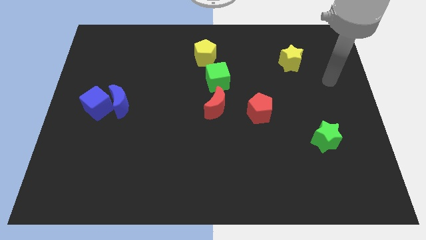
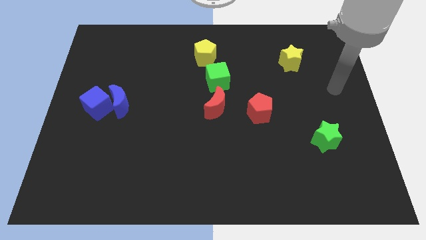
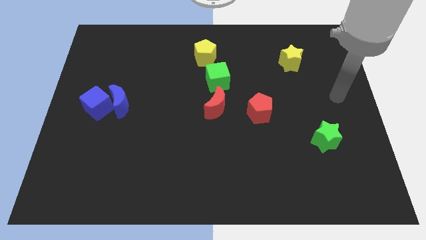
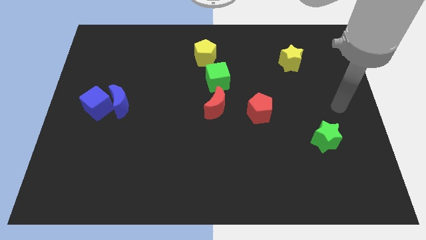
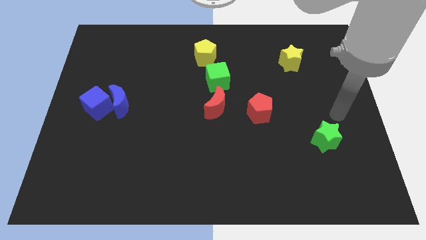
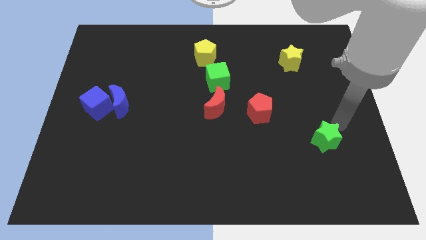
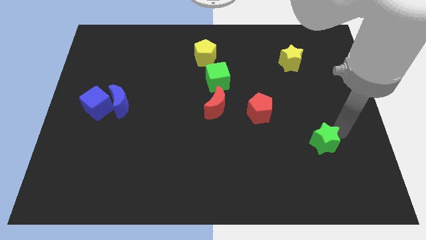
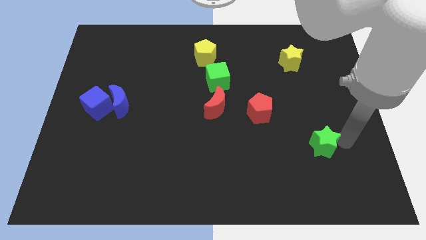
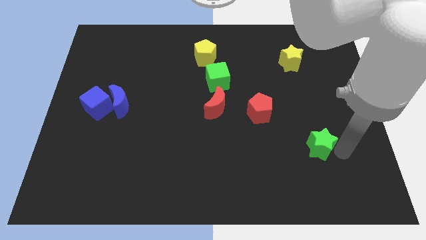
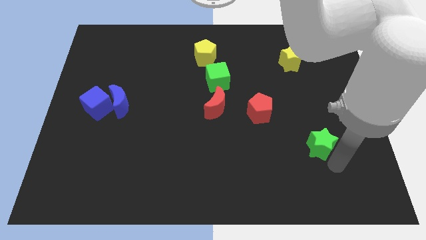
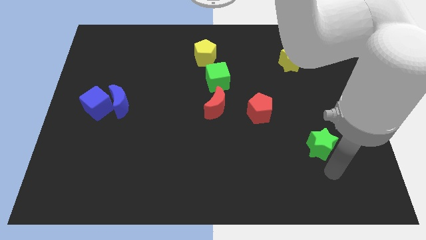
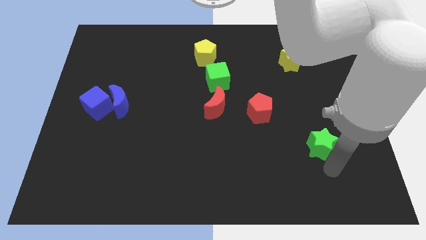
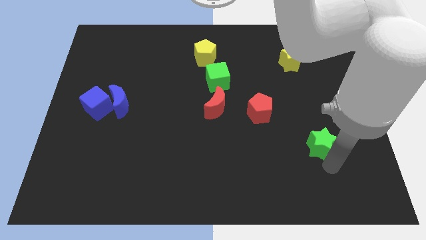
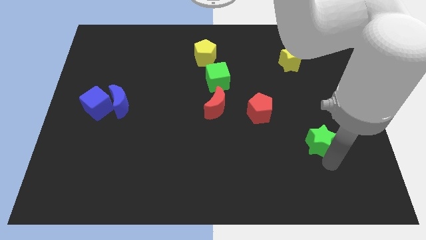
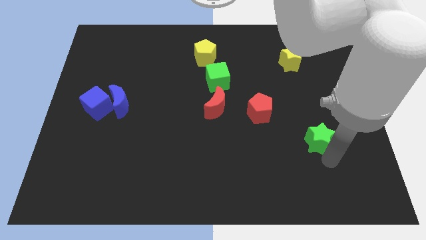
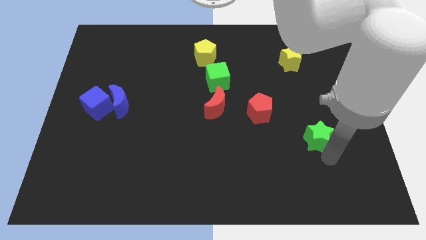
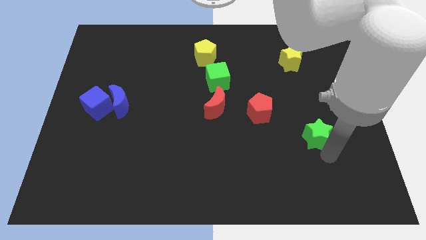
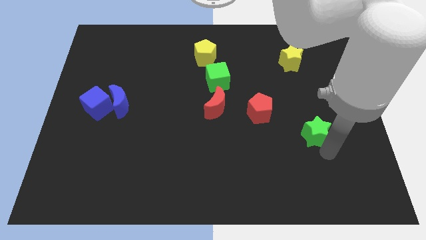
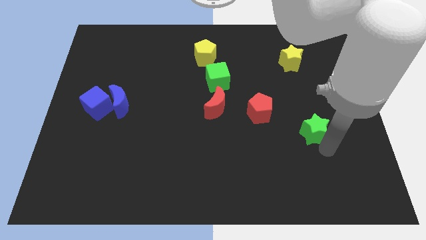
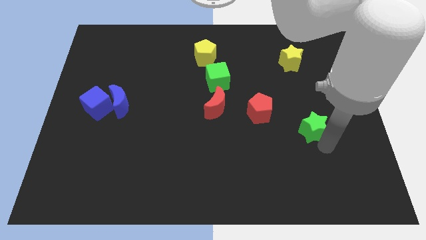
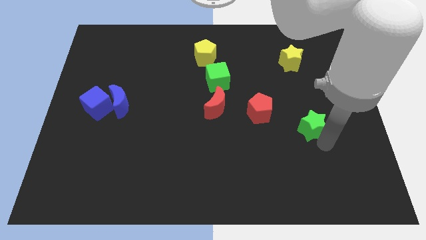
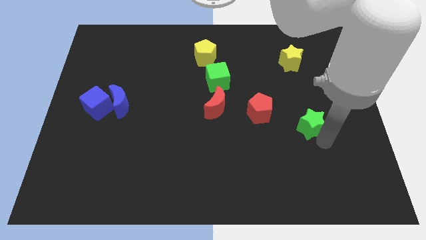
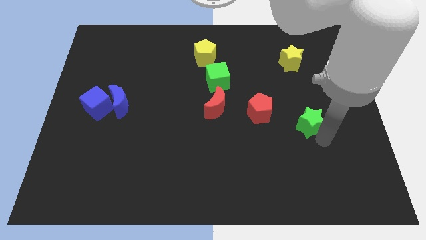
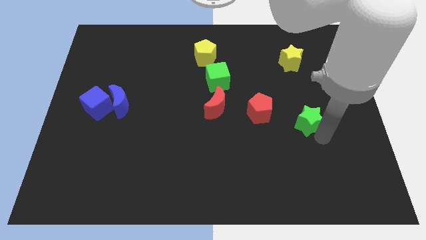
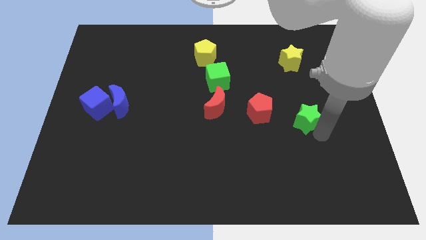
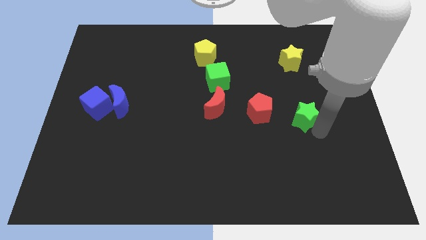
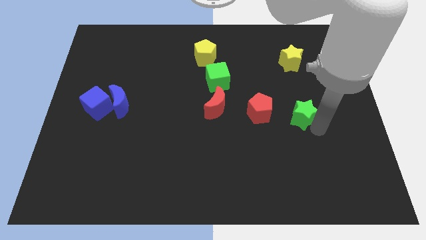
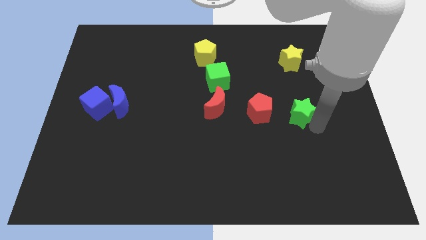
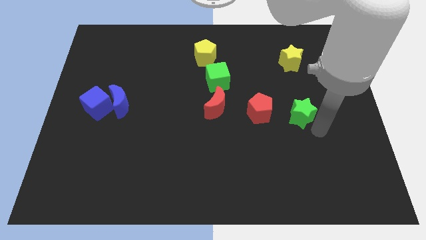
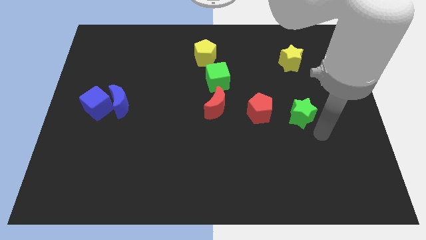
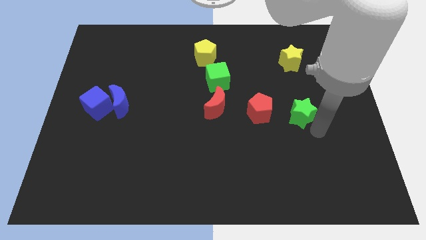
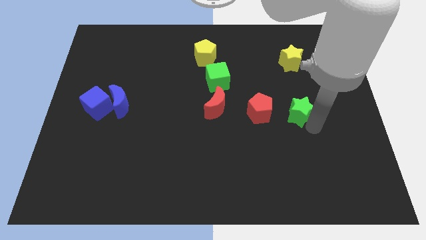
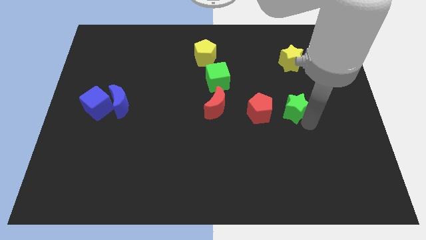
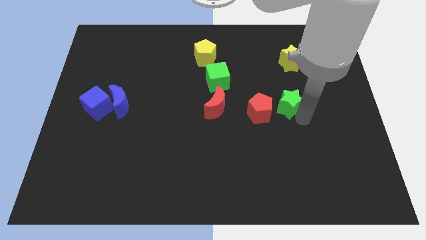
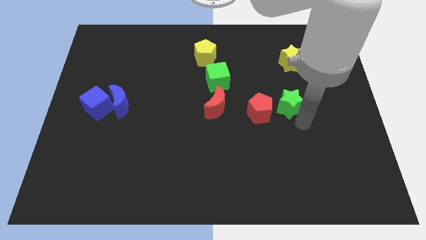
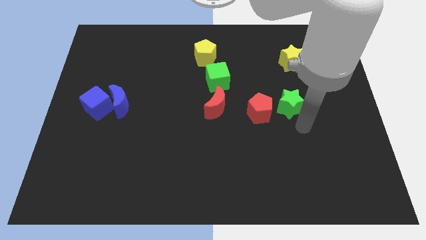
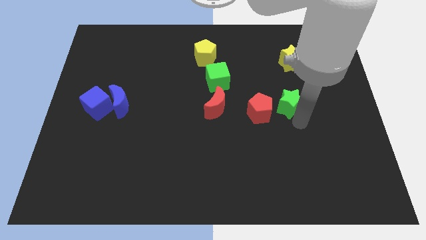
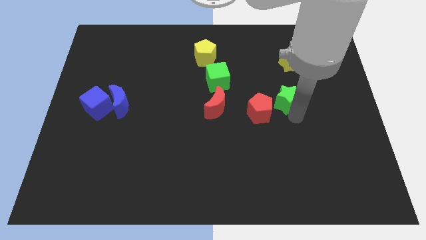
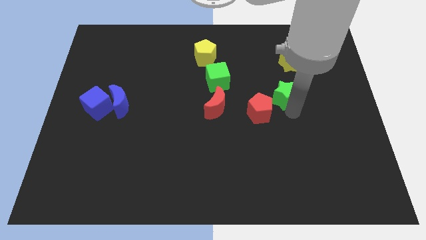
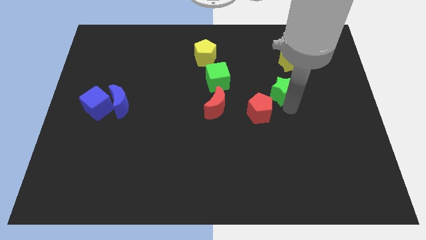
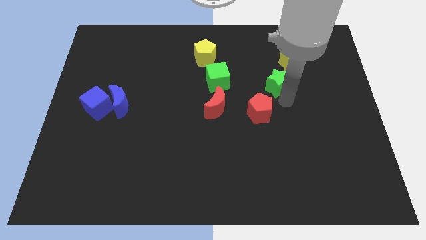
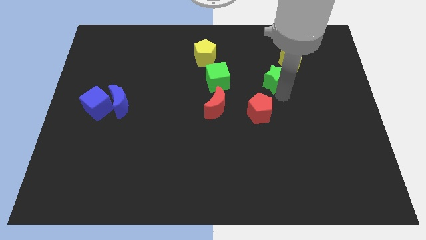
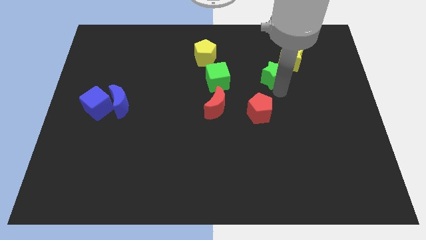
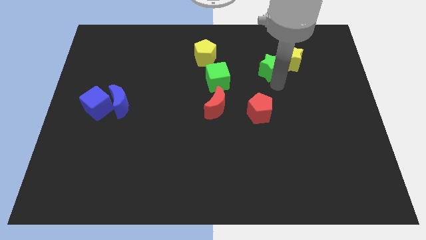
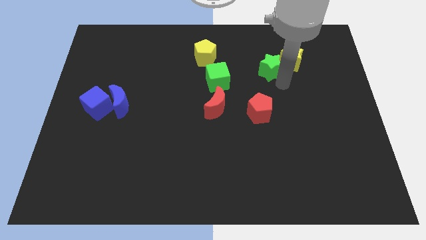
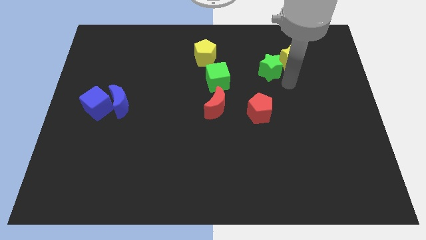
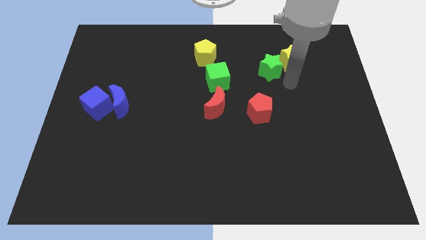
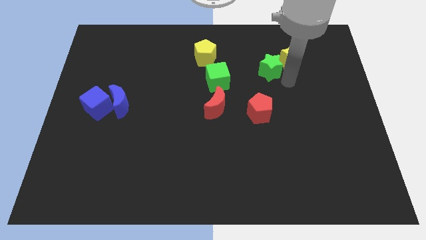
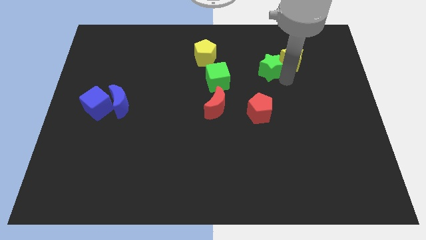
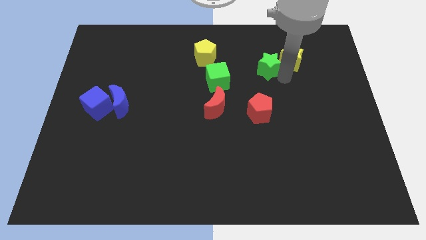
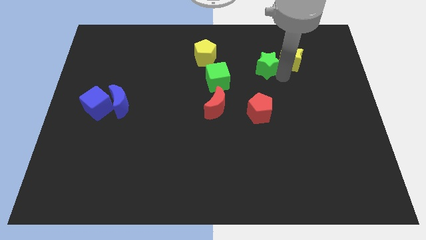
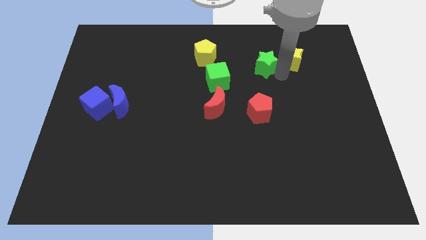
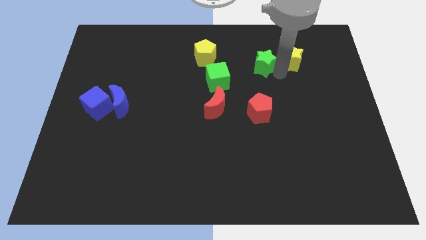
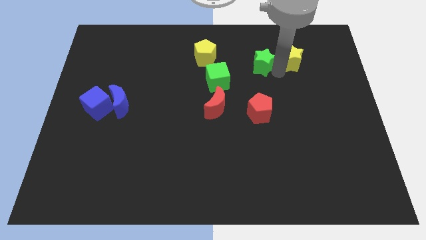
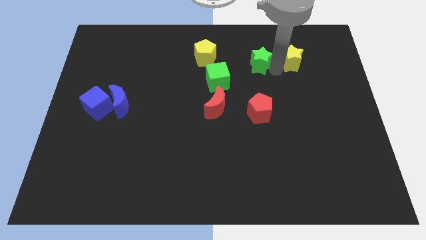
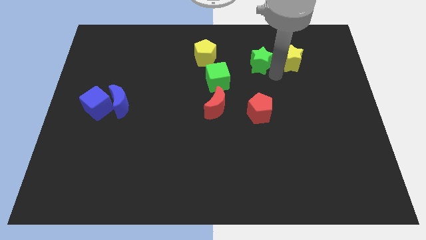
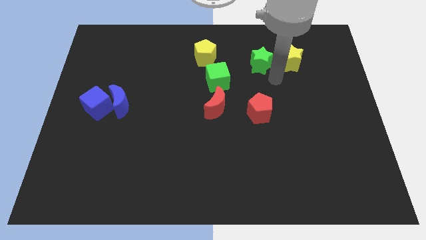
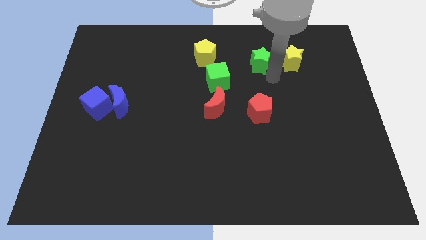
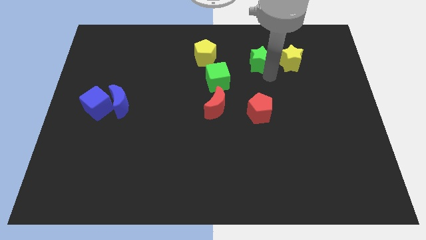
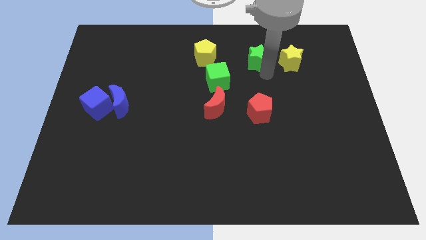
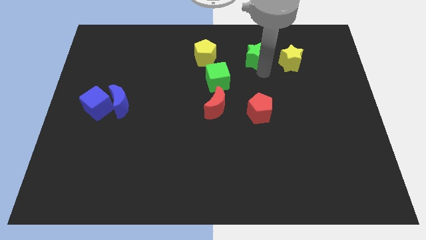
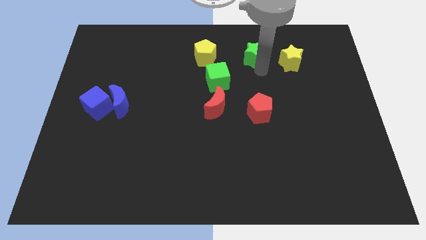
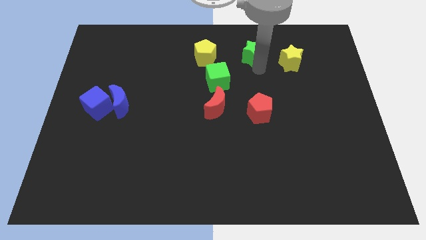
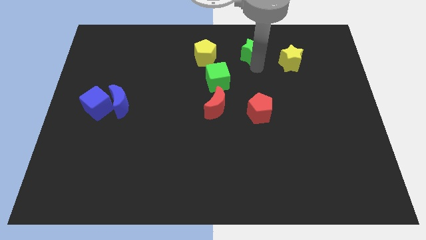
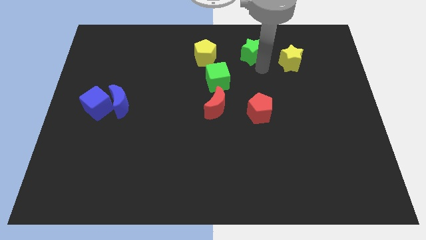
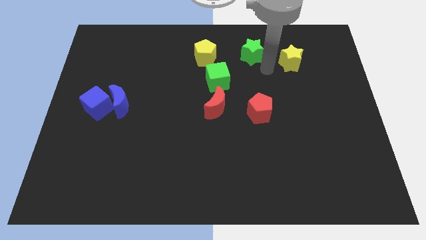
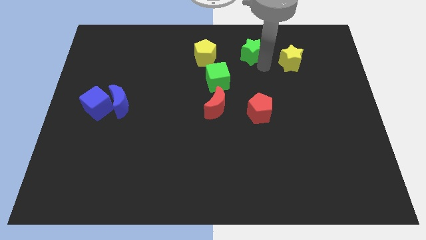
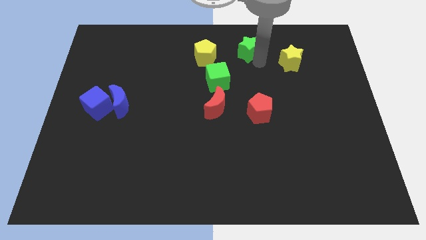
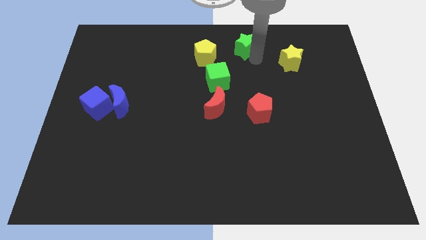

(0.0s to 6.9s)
move the green star to the top side

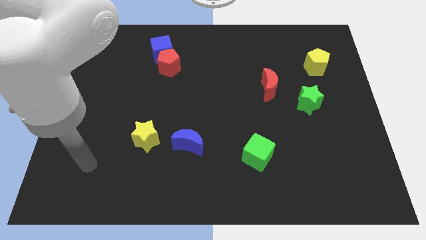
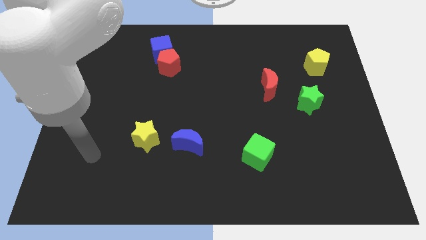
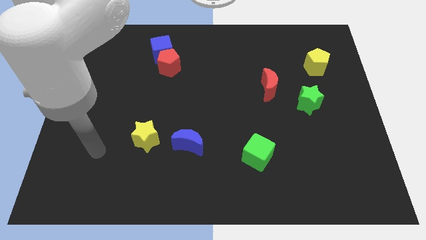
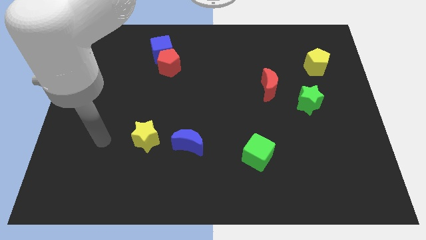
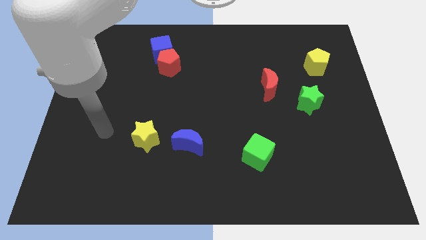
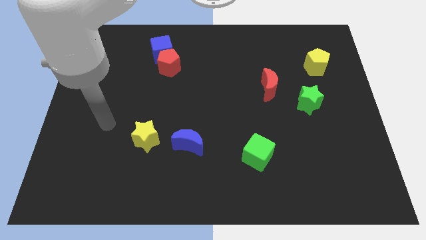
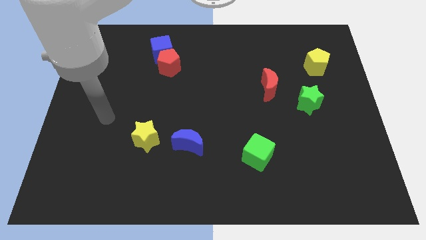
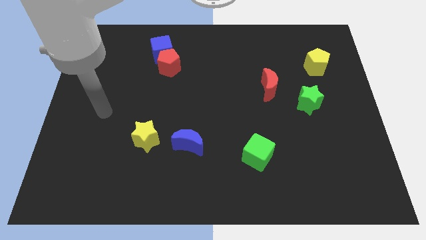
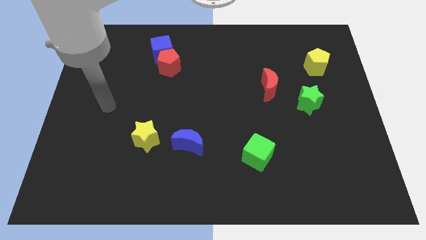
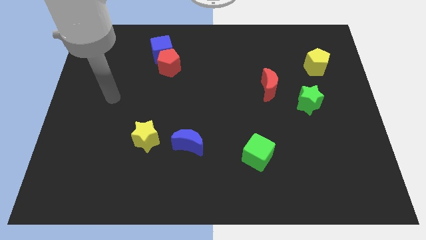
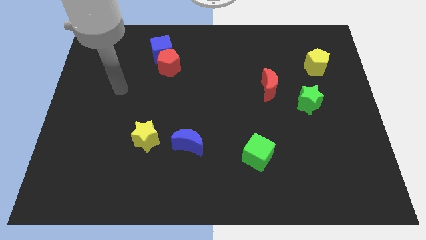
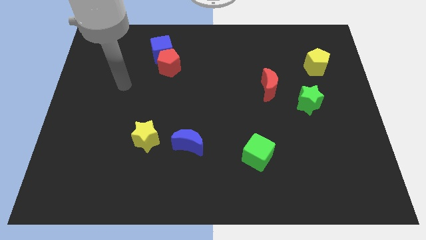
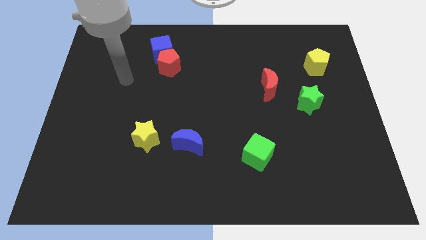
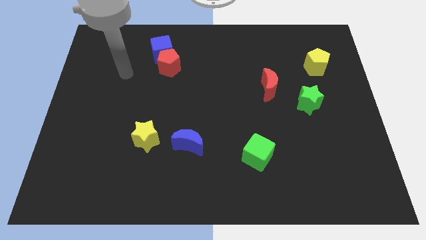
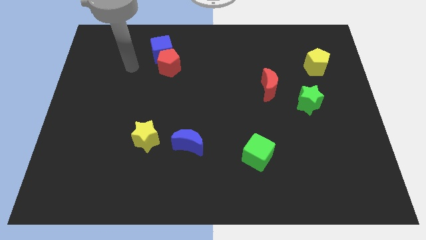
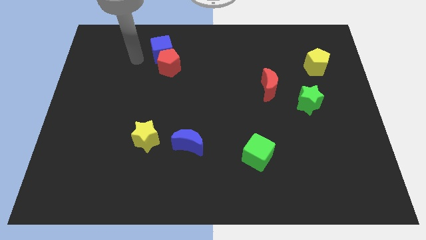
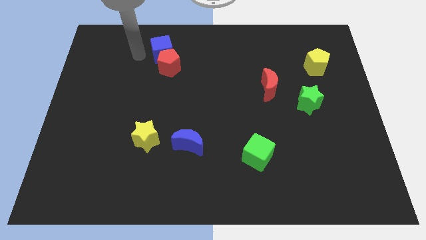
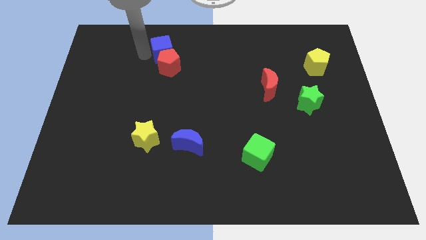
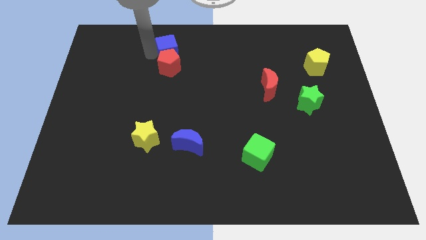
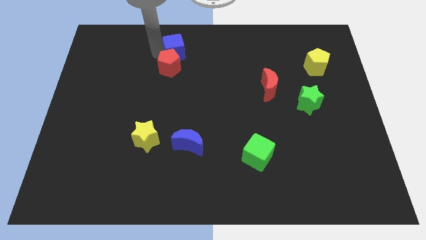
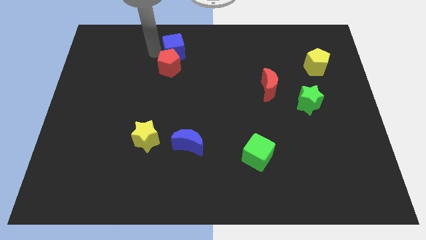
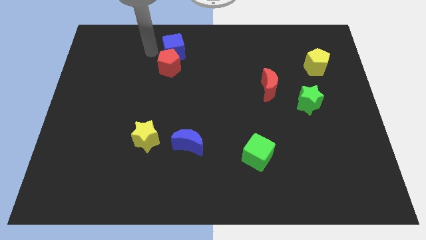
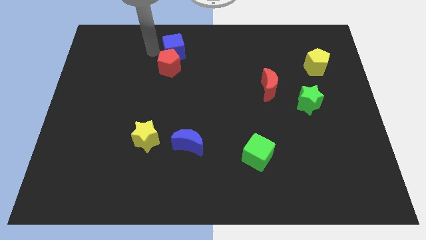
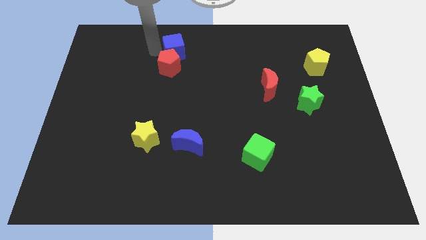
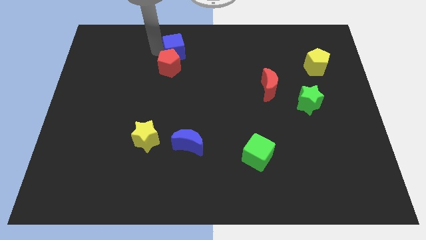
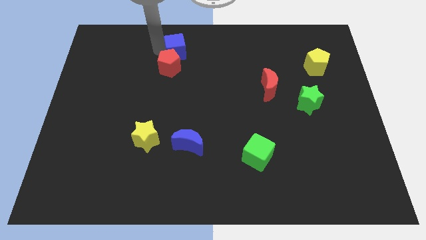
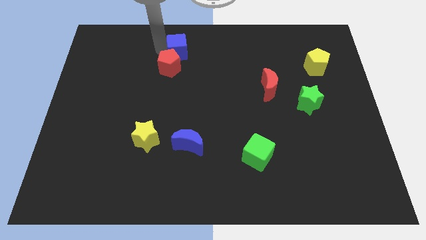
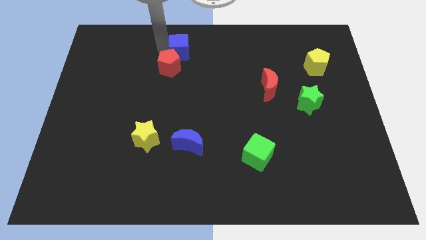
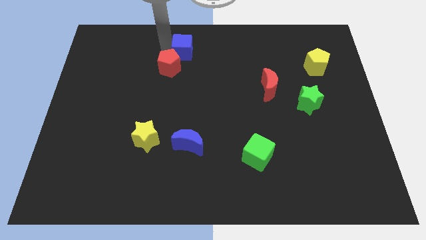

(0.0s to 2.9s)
push the blue cube to the top
